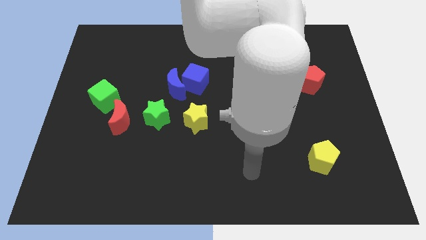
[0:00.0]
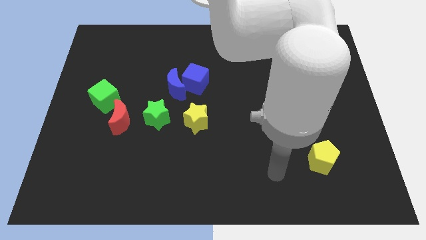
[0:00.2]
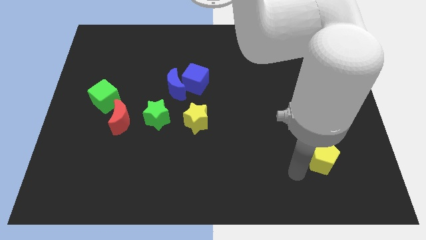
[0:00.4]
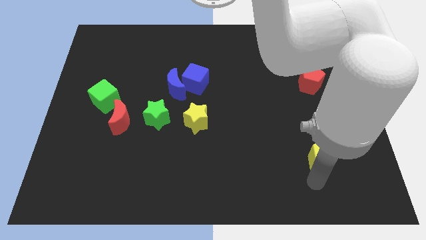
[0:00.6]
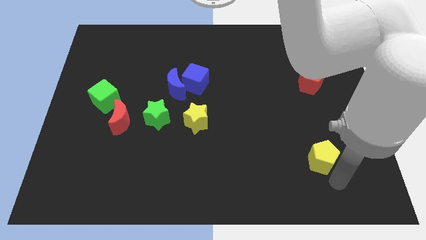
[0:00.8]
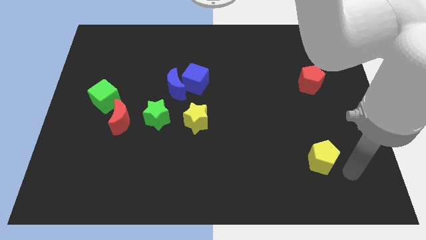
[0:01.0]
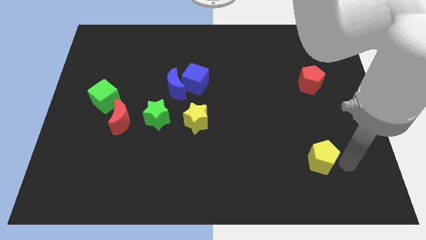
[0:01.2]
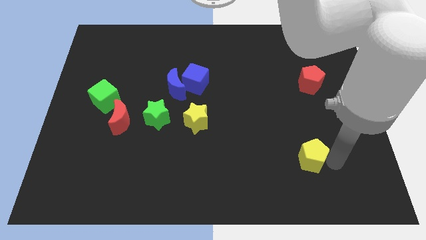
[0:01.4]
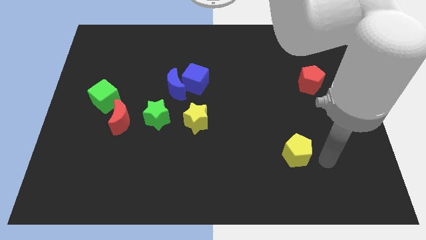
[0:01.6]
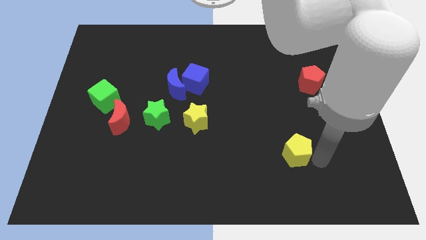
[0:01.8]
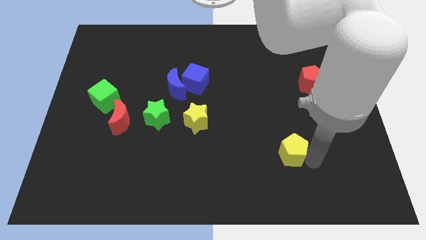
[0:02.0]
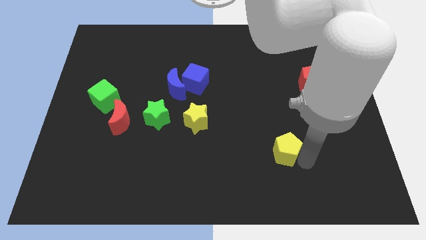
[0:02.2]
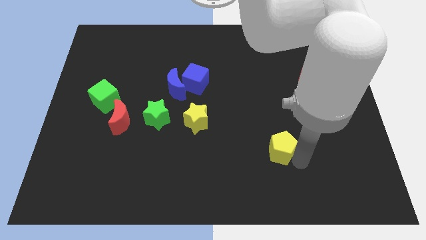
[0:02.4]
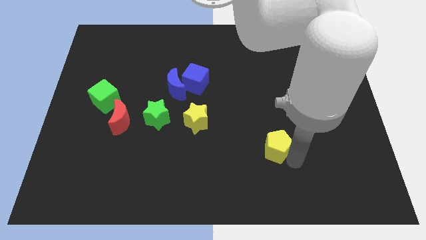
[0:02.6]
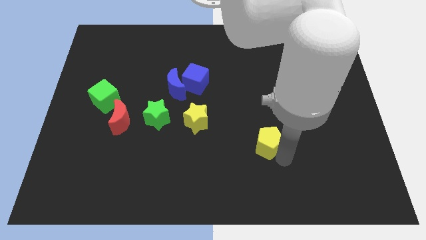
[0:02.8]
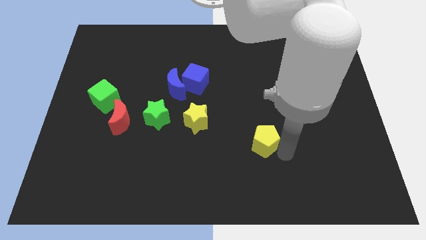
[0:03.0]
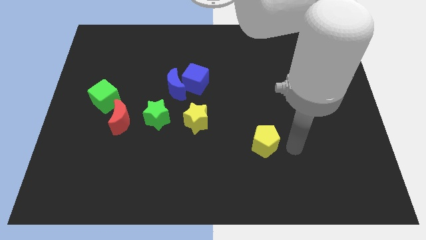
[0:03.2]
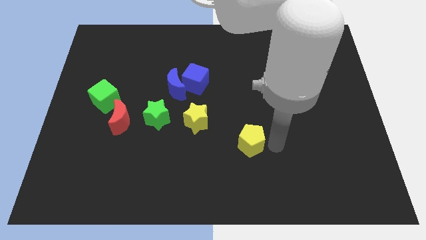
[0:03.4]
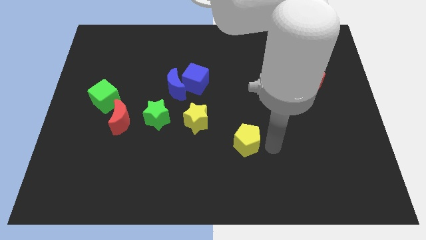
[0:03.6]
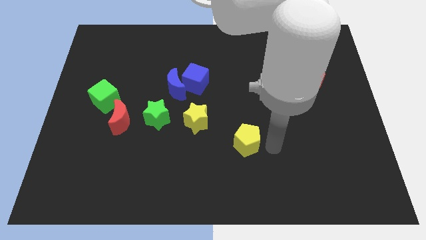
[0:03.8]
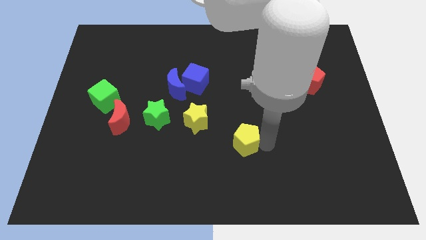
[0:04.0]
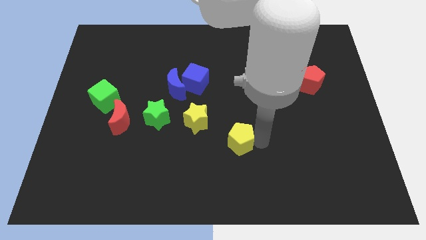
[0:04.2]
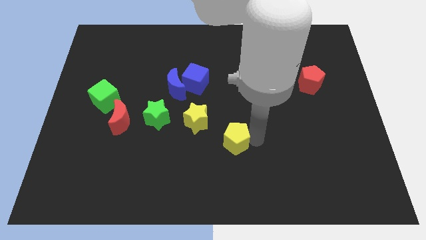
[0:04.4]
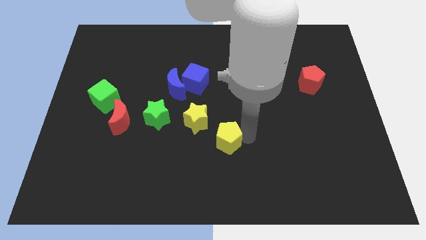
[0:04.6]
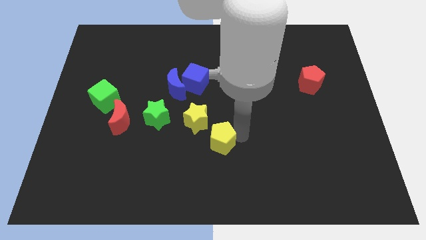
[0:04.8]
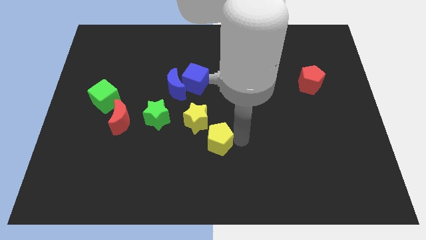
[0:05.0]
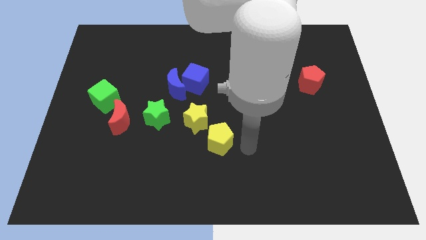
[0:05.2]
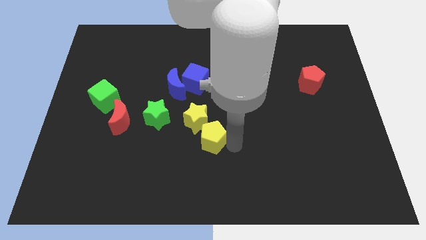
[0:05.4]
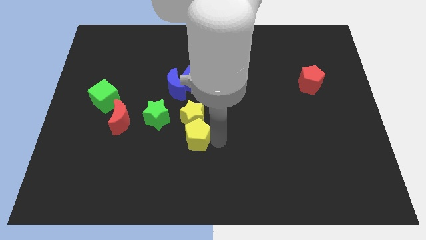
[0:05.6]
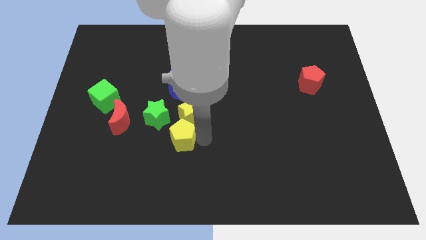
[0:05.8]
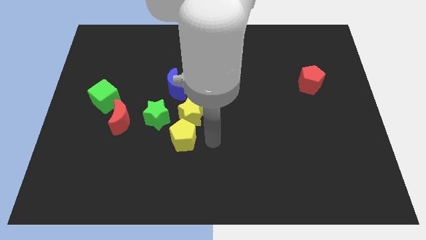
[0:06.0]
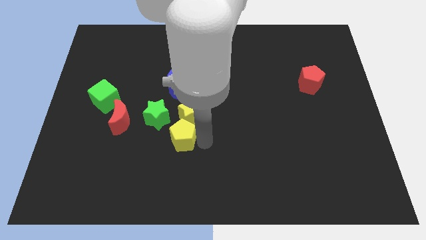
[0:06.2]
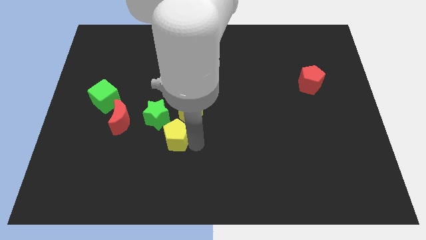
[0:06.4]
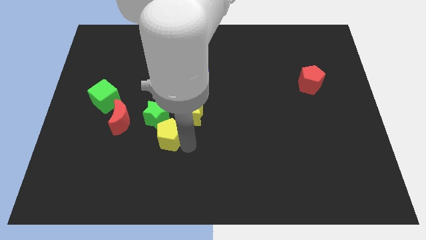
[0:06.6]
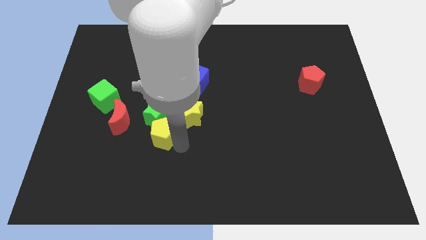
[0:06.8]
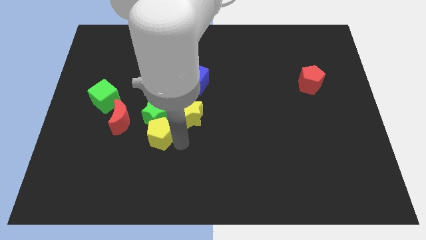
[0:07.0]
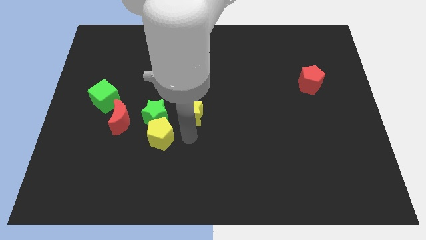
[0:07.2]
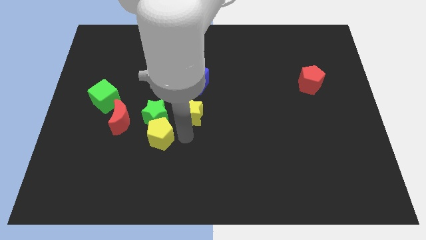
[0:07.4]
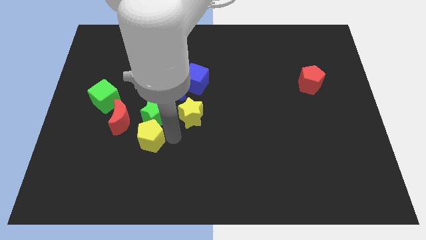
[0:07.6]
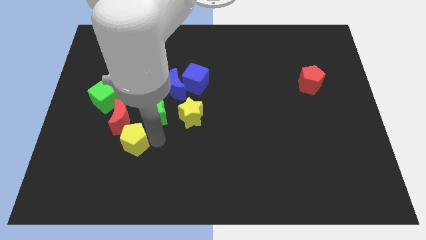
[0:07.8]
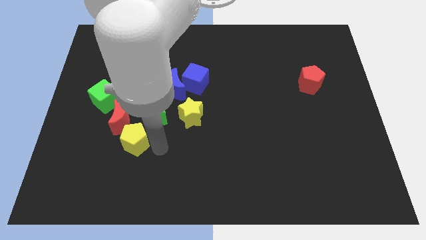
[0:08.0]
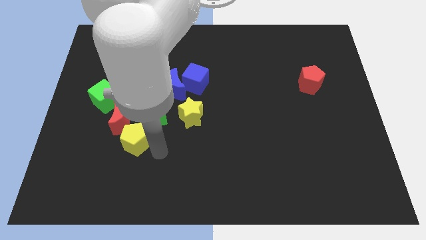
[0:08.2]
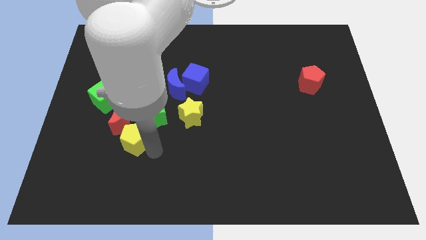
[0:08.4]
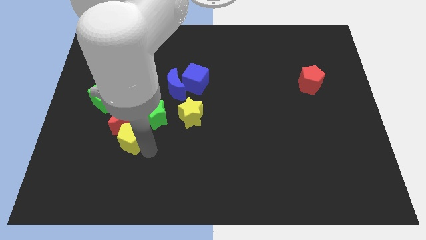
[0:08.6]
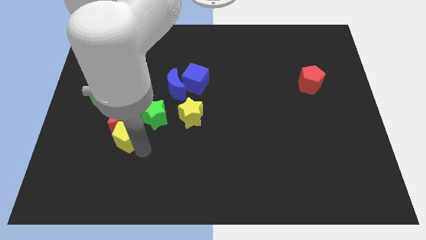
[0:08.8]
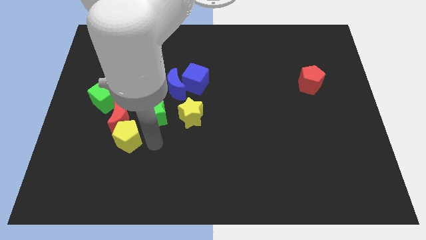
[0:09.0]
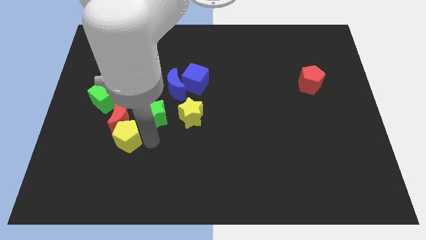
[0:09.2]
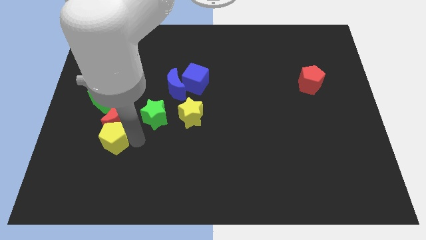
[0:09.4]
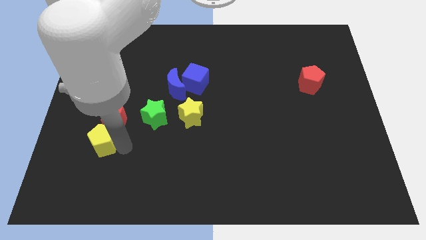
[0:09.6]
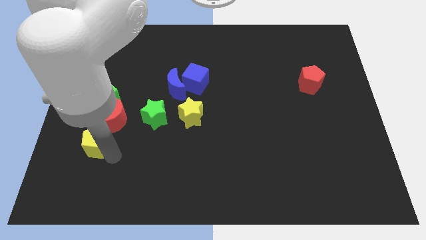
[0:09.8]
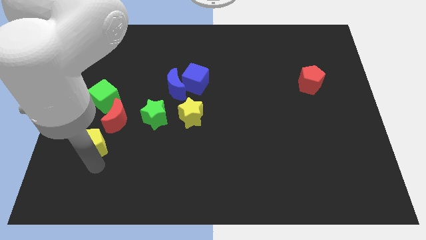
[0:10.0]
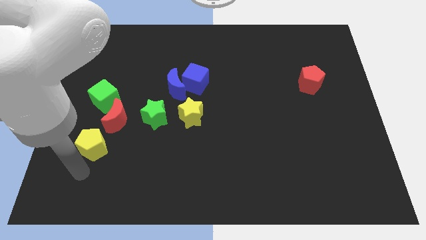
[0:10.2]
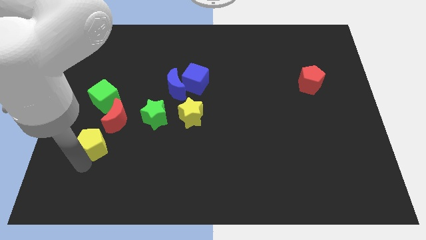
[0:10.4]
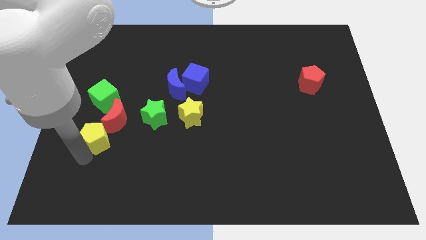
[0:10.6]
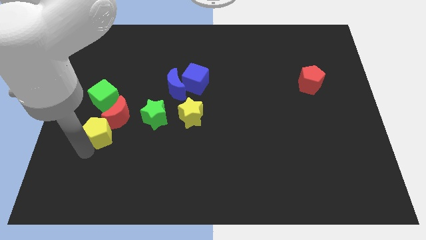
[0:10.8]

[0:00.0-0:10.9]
put the yellow pentagon just left of the green star

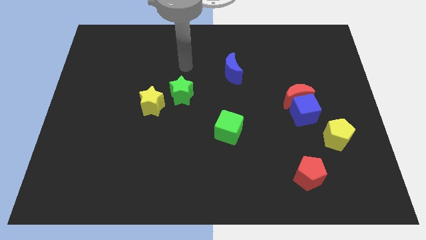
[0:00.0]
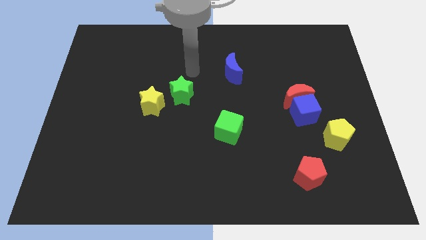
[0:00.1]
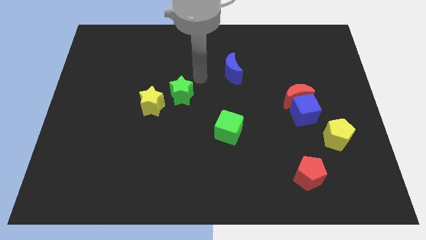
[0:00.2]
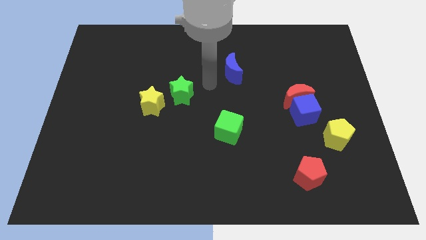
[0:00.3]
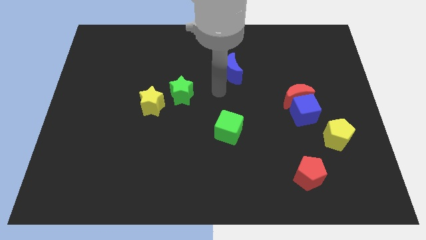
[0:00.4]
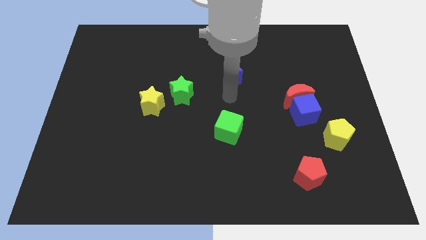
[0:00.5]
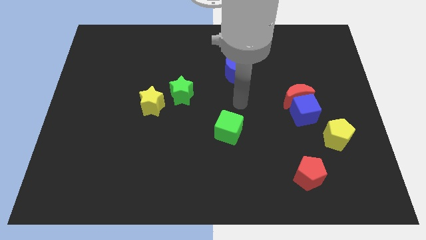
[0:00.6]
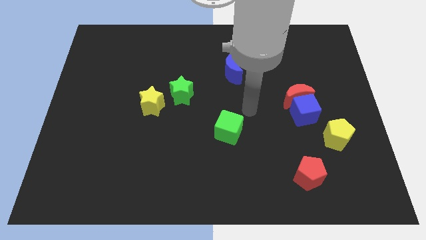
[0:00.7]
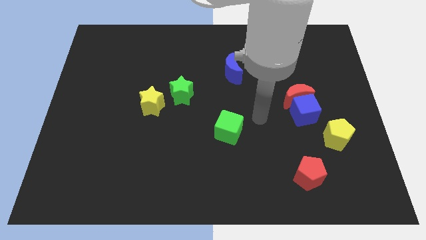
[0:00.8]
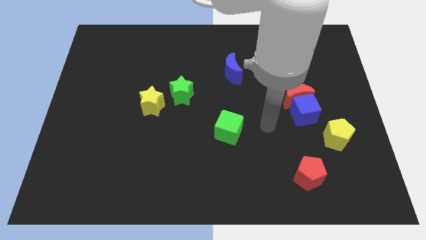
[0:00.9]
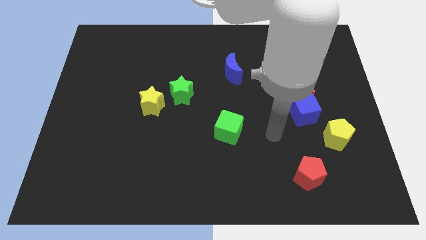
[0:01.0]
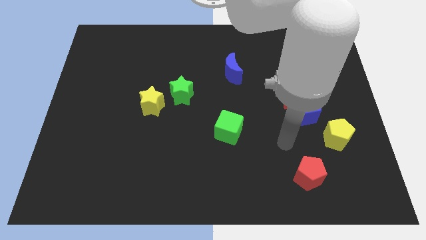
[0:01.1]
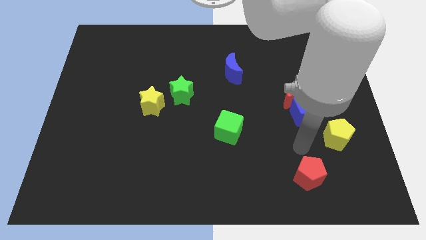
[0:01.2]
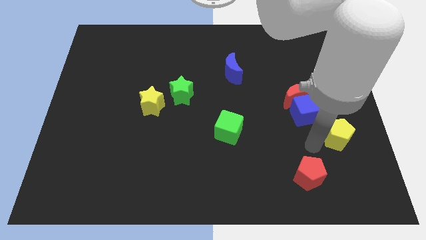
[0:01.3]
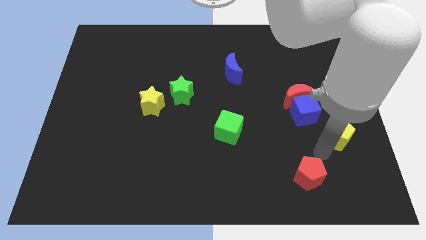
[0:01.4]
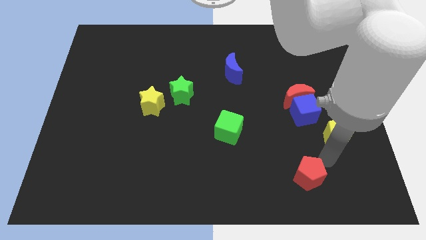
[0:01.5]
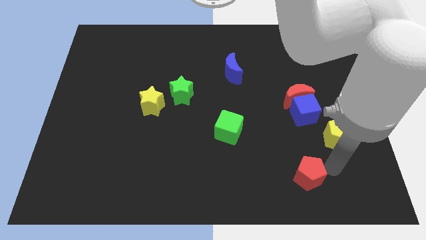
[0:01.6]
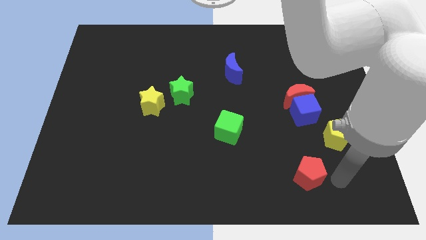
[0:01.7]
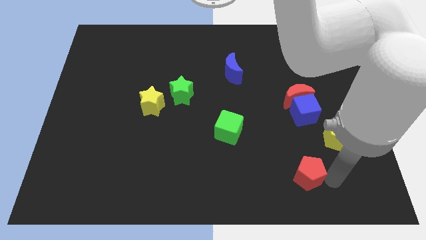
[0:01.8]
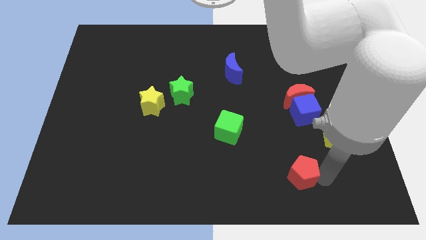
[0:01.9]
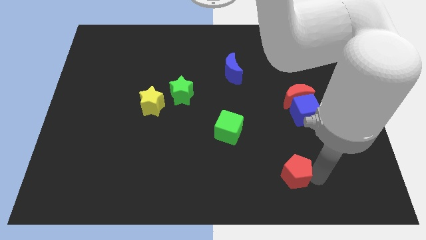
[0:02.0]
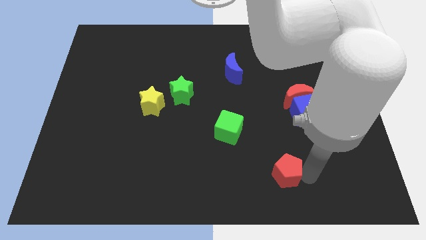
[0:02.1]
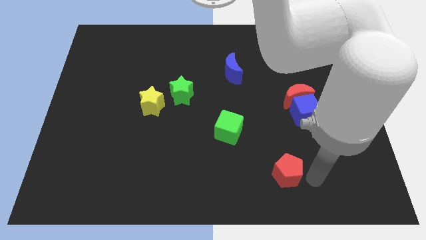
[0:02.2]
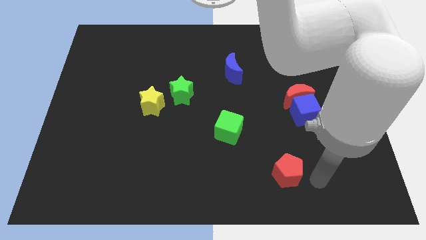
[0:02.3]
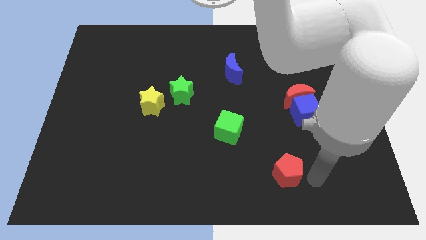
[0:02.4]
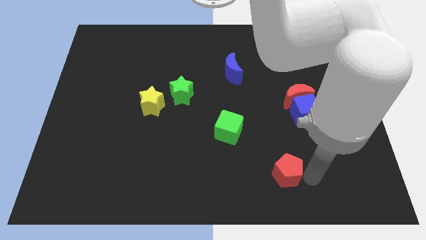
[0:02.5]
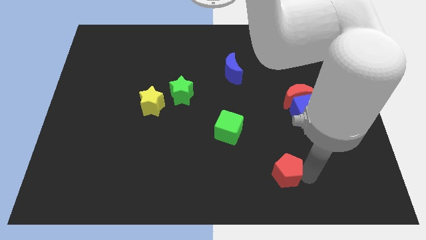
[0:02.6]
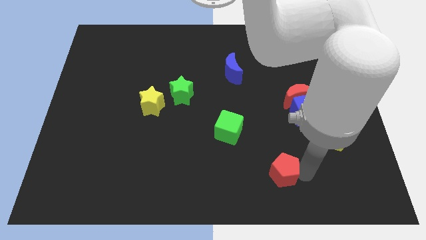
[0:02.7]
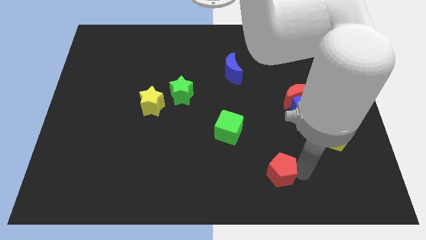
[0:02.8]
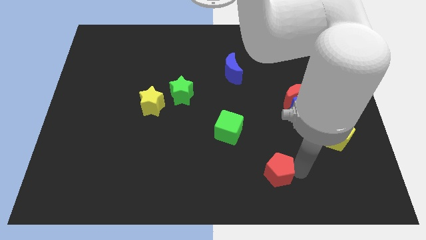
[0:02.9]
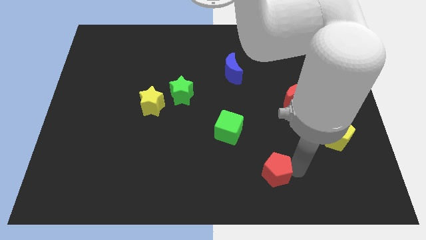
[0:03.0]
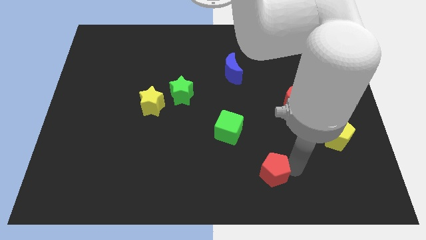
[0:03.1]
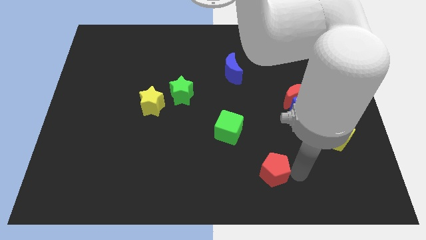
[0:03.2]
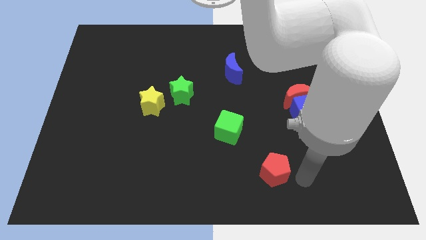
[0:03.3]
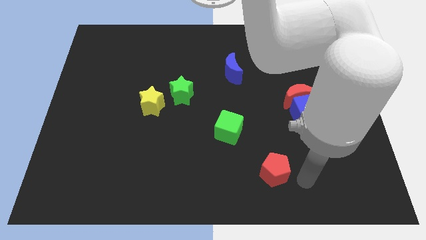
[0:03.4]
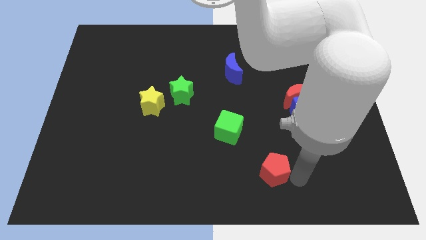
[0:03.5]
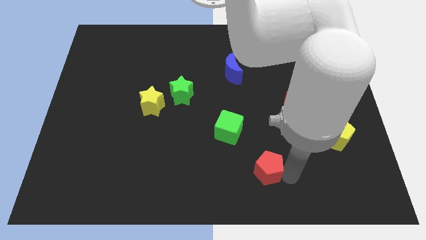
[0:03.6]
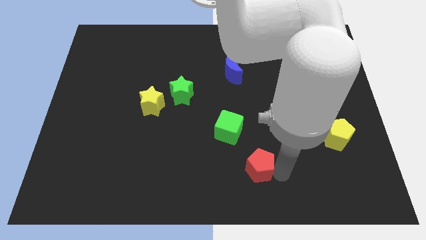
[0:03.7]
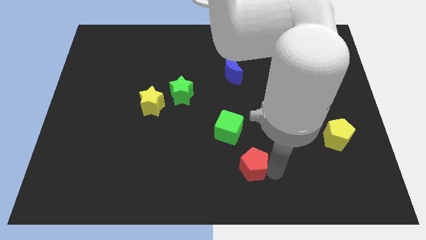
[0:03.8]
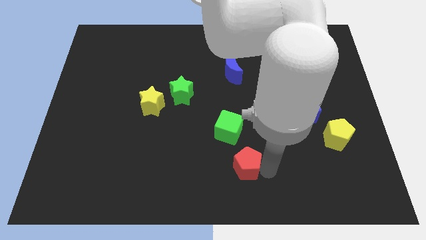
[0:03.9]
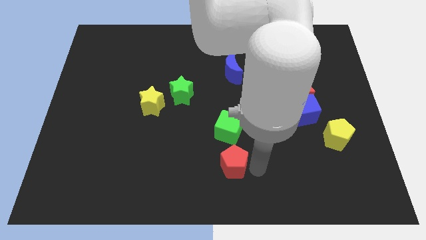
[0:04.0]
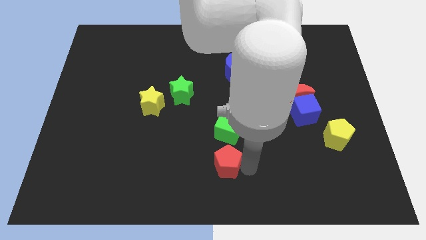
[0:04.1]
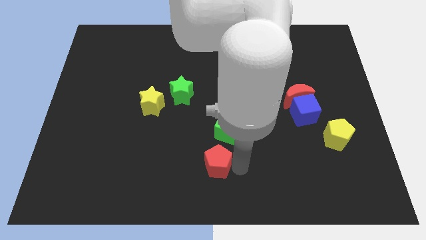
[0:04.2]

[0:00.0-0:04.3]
slide the red pentagon to the bottom left of the green cube
